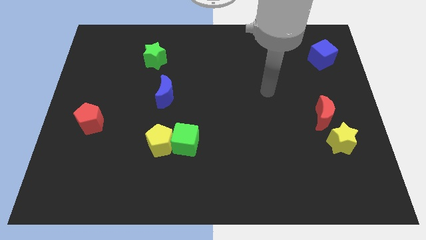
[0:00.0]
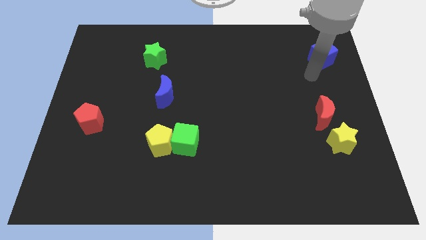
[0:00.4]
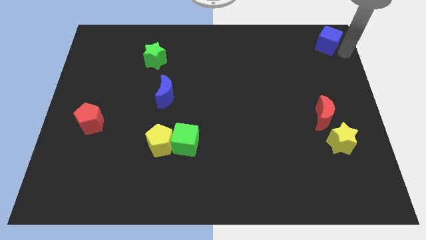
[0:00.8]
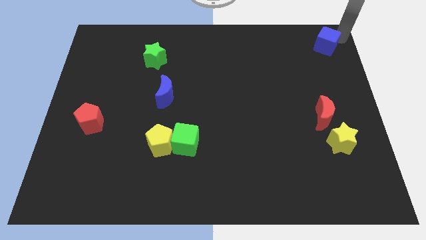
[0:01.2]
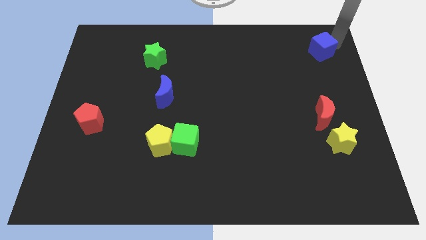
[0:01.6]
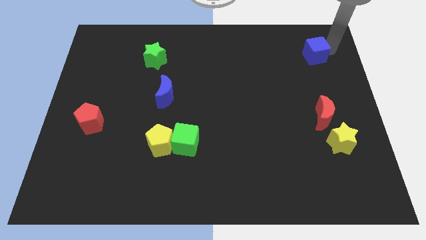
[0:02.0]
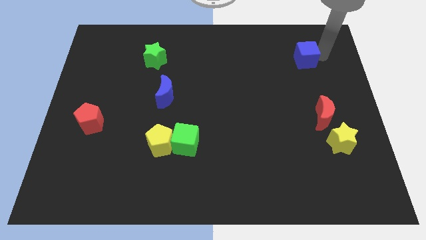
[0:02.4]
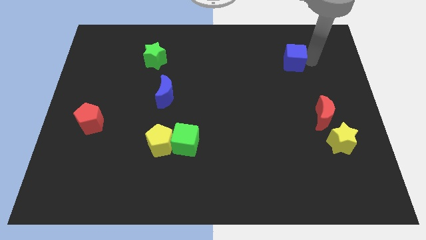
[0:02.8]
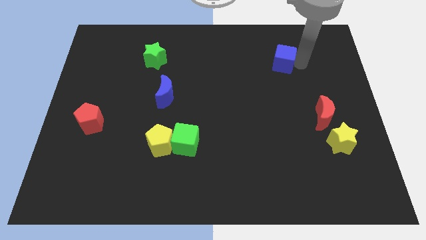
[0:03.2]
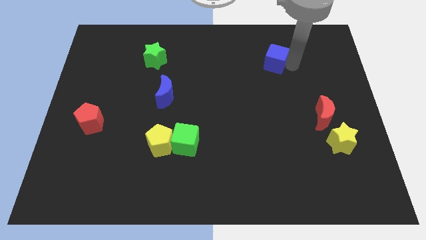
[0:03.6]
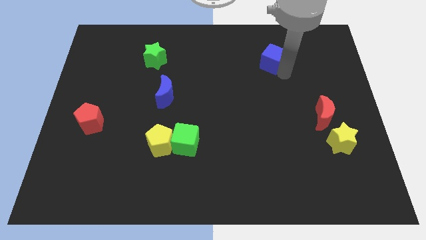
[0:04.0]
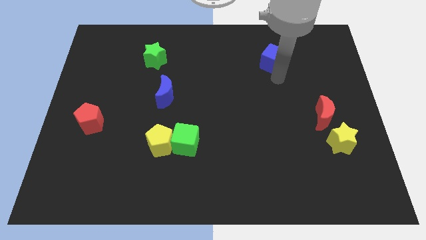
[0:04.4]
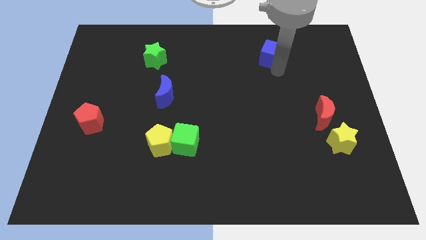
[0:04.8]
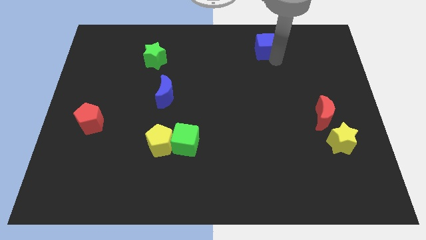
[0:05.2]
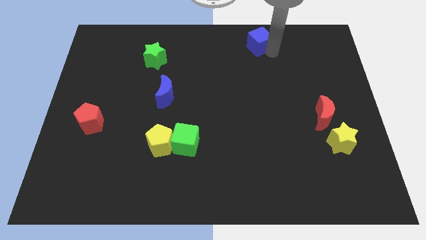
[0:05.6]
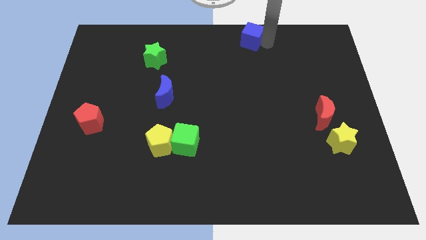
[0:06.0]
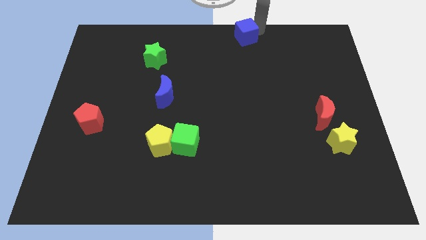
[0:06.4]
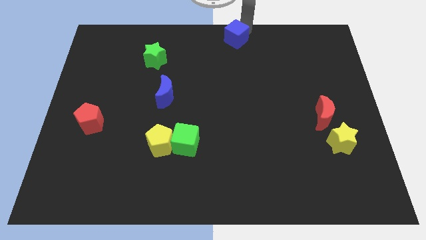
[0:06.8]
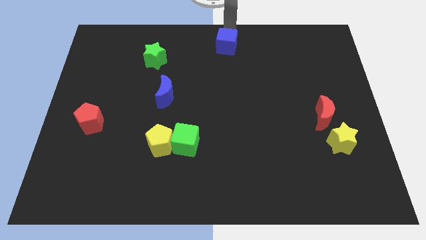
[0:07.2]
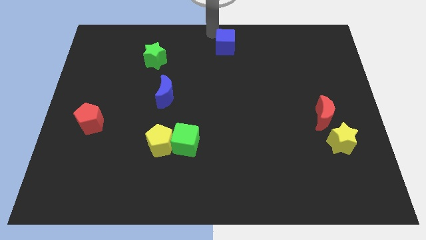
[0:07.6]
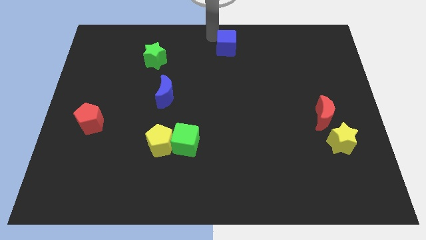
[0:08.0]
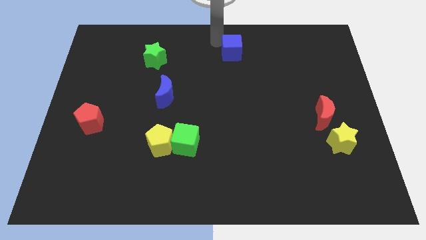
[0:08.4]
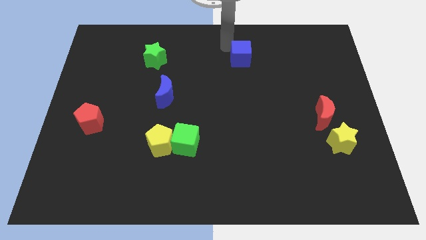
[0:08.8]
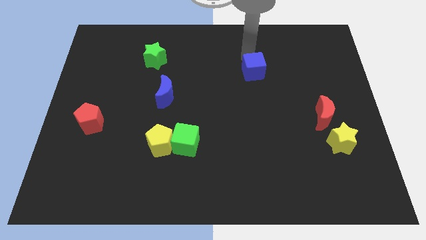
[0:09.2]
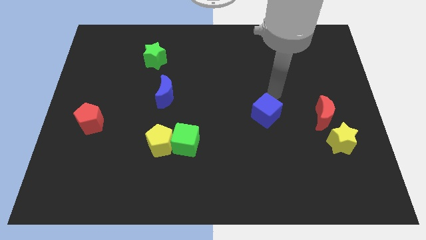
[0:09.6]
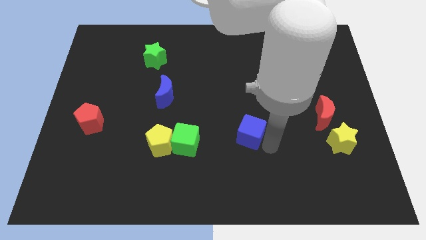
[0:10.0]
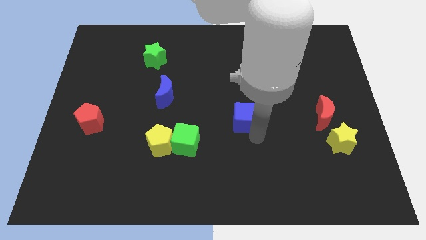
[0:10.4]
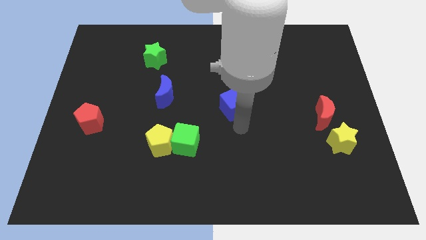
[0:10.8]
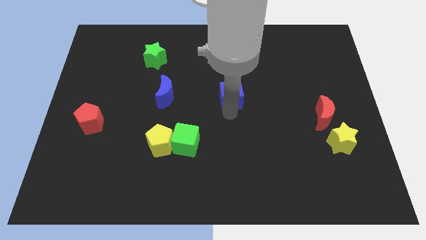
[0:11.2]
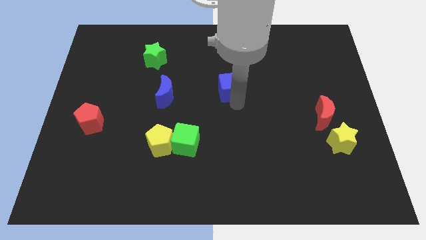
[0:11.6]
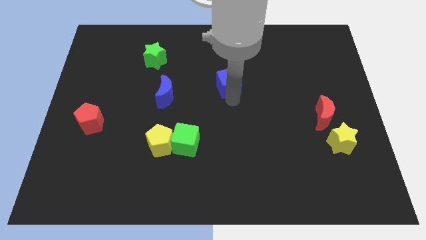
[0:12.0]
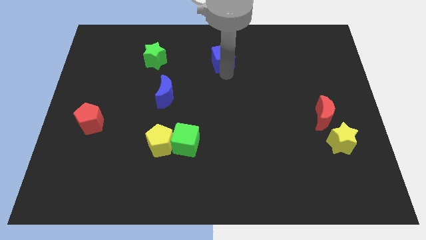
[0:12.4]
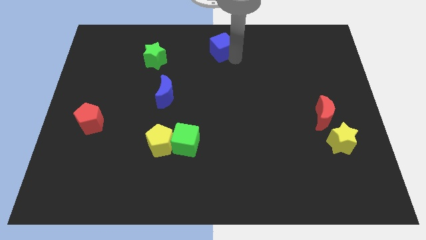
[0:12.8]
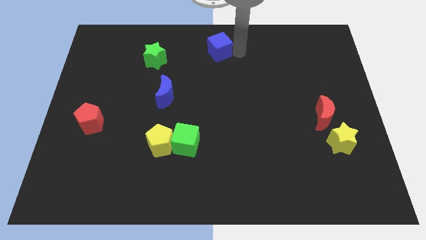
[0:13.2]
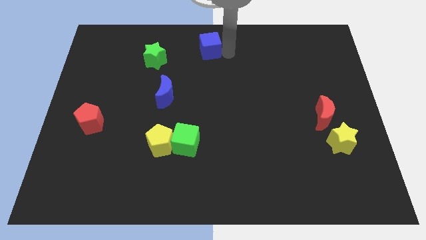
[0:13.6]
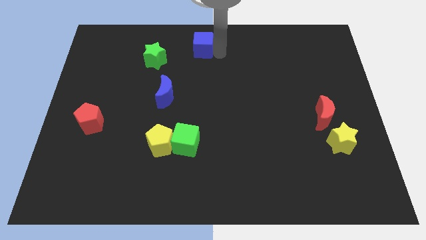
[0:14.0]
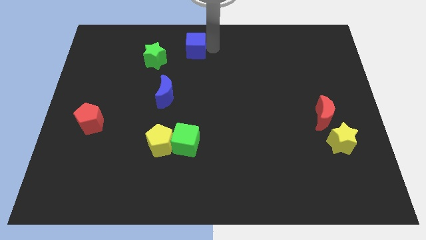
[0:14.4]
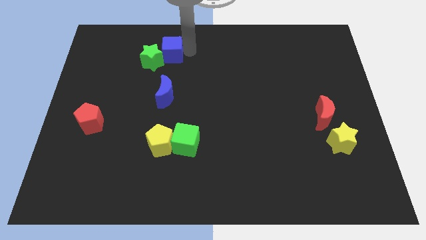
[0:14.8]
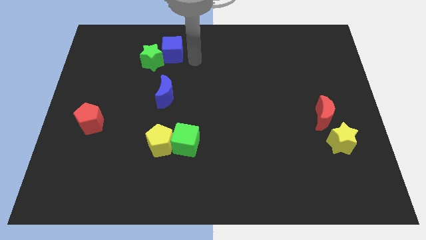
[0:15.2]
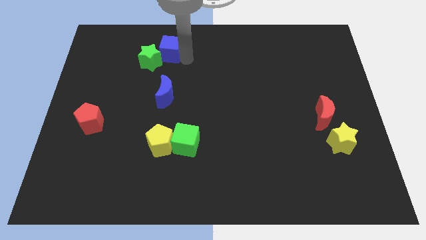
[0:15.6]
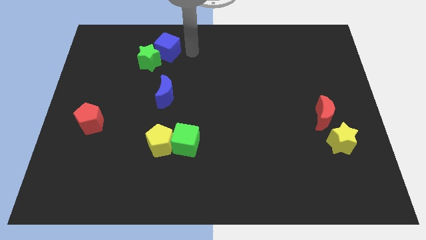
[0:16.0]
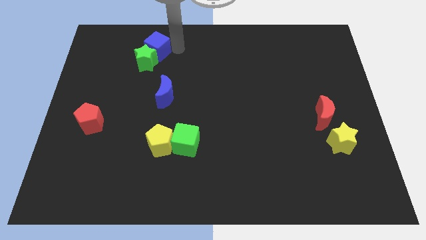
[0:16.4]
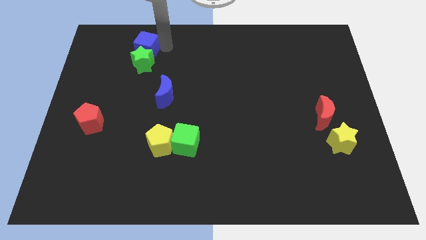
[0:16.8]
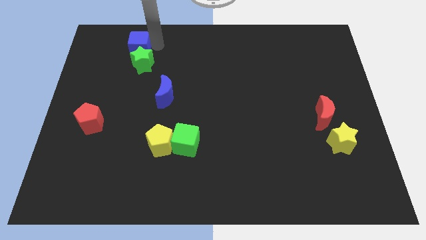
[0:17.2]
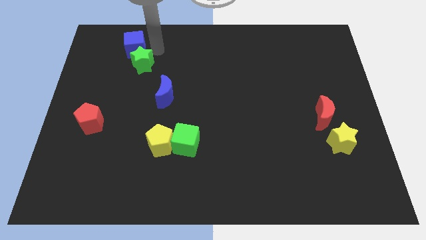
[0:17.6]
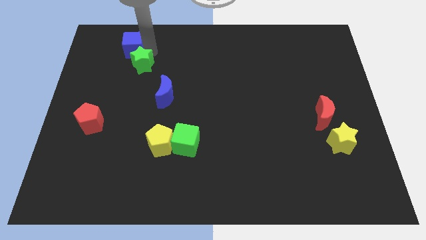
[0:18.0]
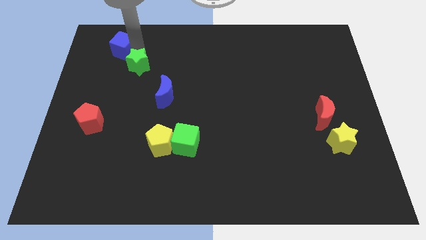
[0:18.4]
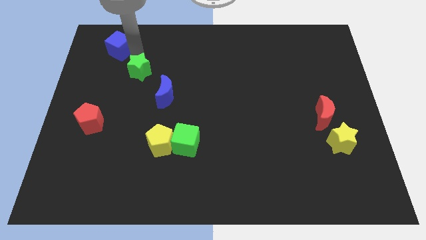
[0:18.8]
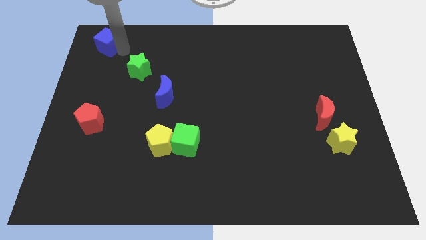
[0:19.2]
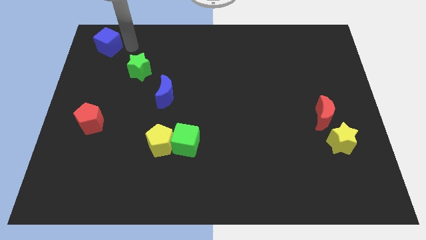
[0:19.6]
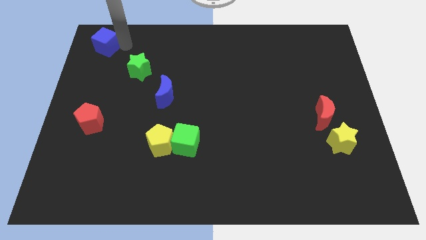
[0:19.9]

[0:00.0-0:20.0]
slide the blue cube to the top left of the board

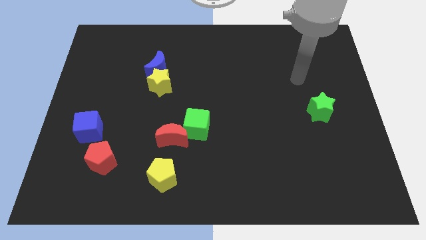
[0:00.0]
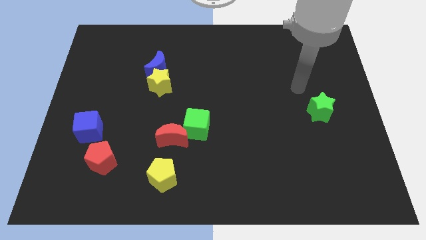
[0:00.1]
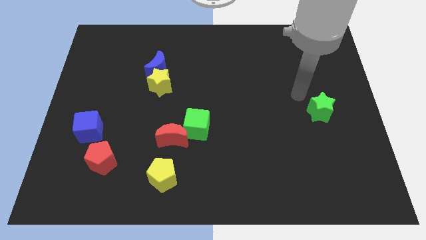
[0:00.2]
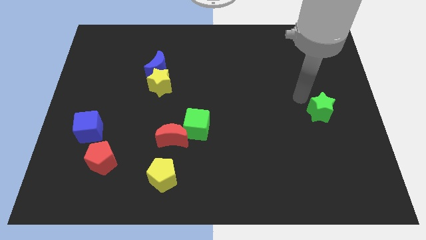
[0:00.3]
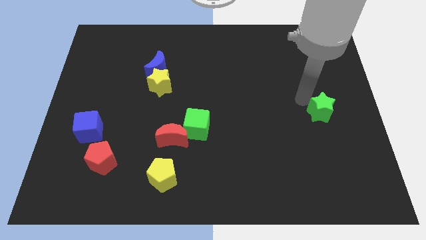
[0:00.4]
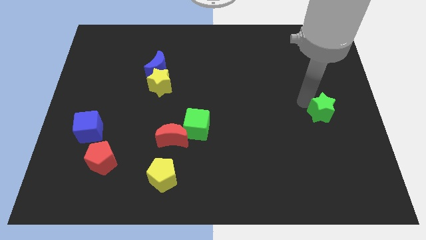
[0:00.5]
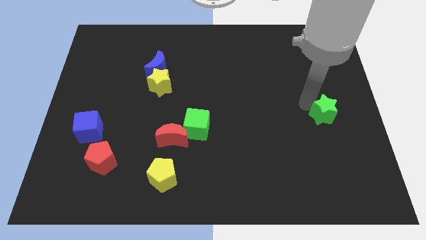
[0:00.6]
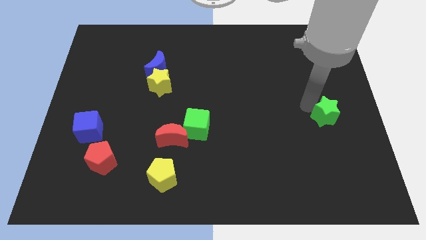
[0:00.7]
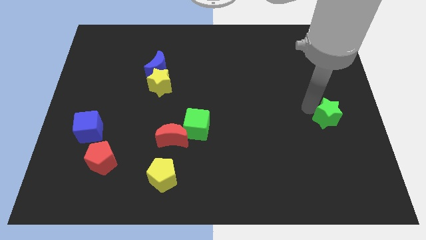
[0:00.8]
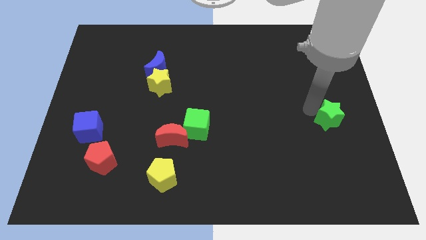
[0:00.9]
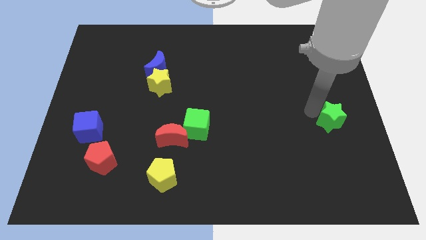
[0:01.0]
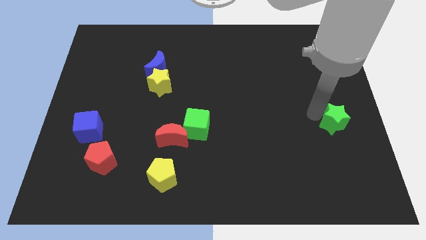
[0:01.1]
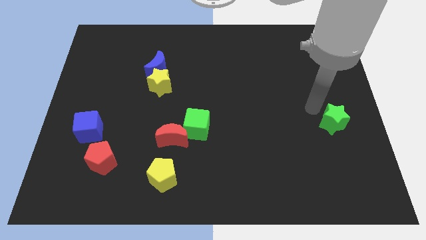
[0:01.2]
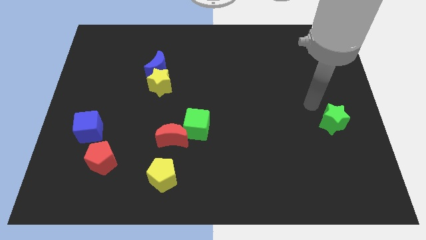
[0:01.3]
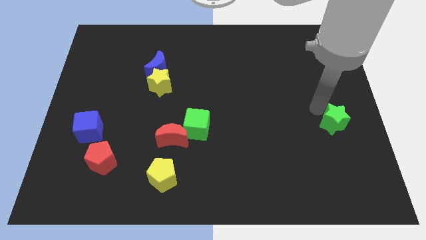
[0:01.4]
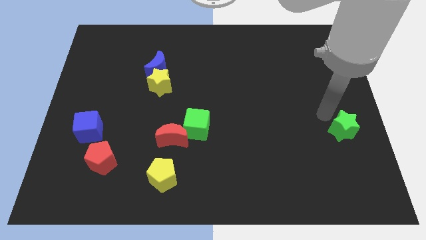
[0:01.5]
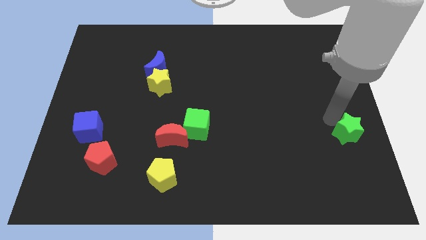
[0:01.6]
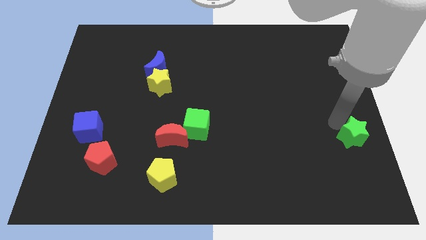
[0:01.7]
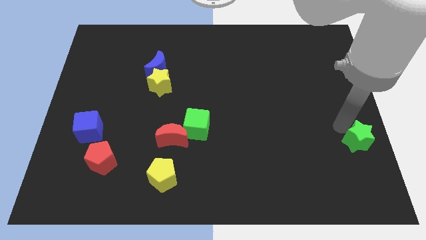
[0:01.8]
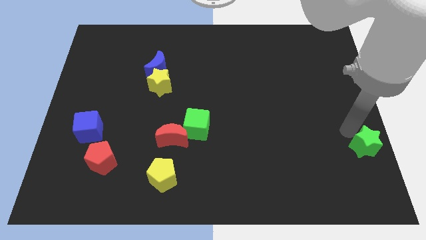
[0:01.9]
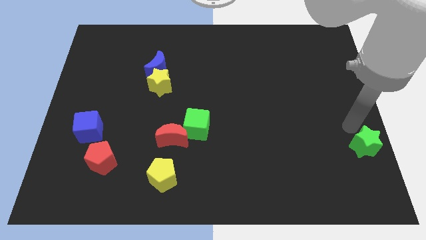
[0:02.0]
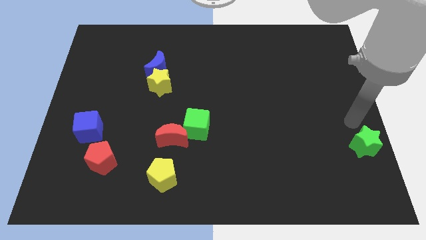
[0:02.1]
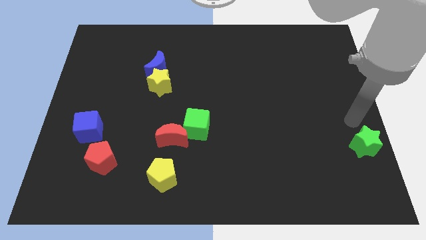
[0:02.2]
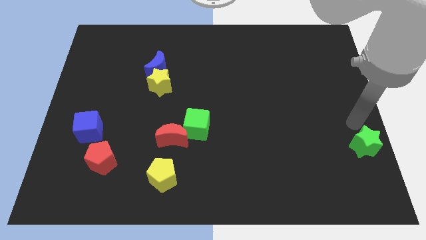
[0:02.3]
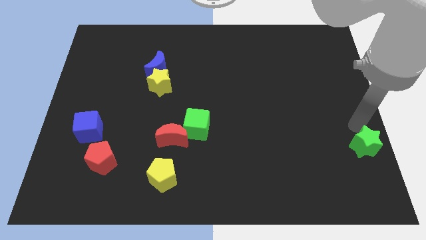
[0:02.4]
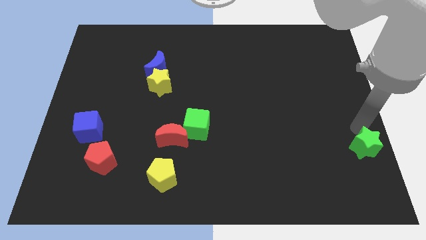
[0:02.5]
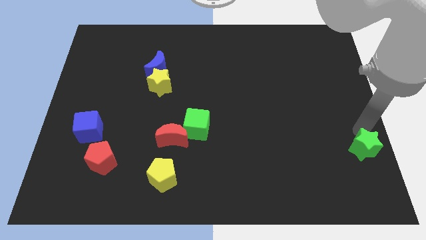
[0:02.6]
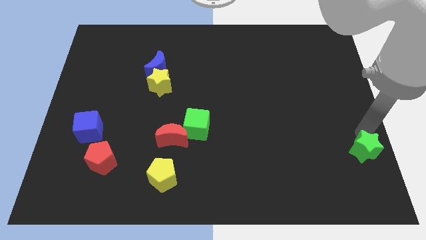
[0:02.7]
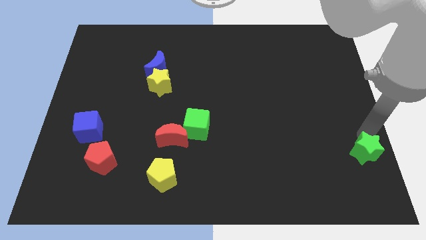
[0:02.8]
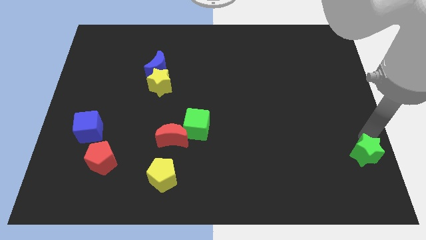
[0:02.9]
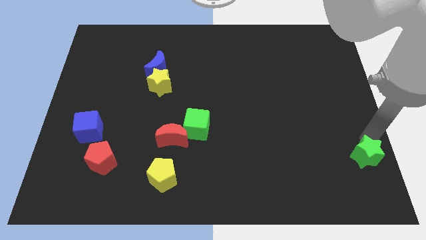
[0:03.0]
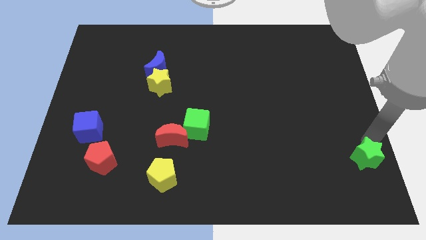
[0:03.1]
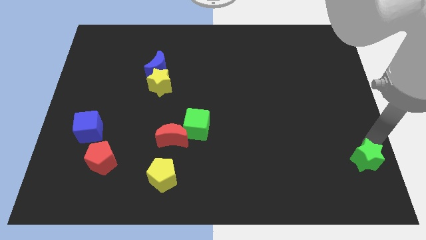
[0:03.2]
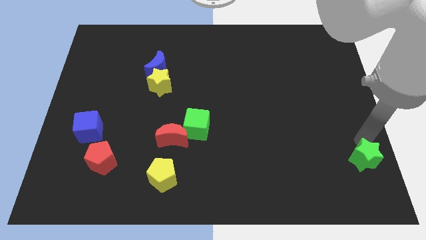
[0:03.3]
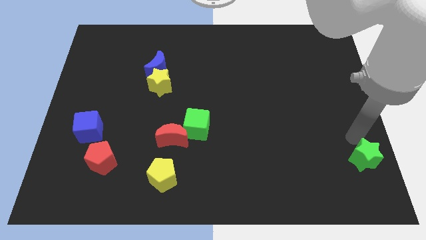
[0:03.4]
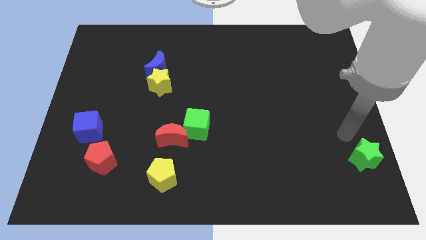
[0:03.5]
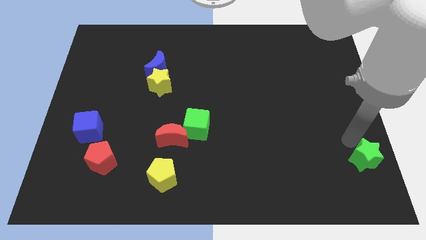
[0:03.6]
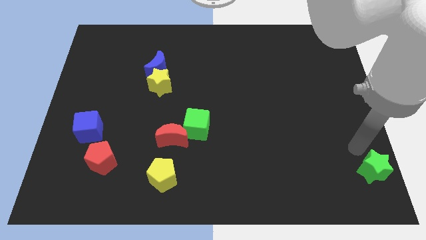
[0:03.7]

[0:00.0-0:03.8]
move the green star to the bottom right of the board
